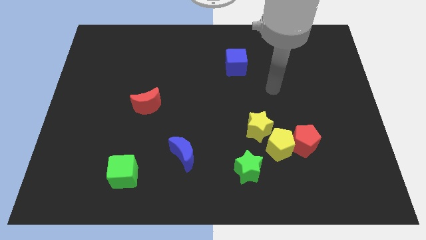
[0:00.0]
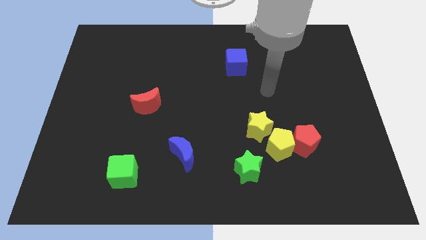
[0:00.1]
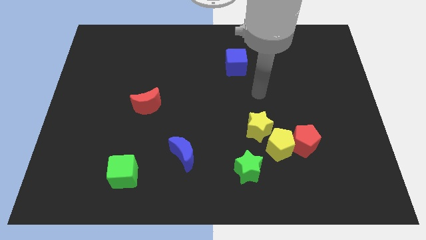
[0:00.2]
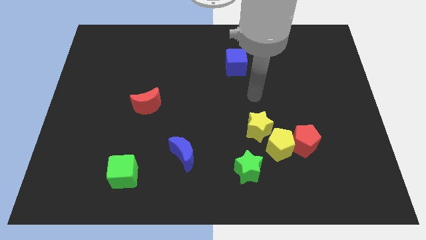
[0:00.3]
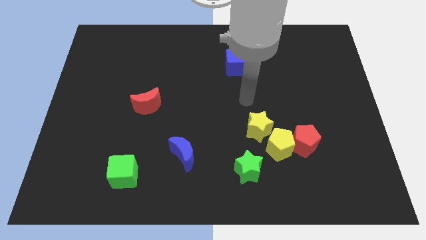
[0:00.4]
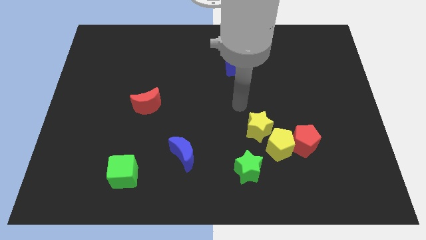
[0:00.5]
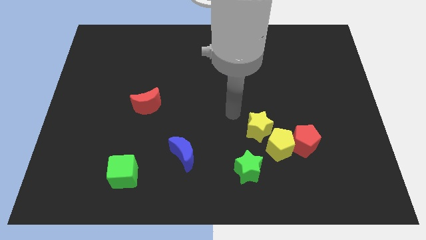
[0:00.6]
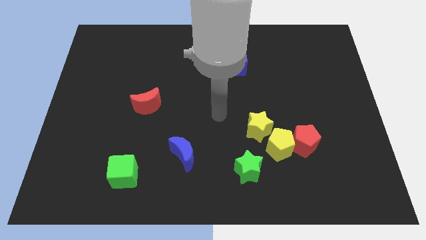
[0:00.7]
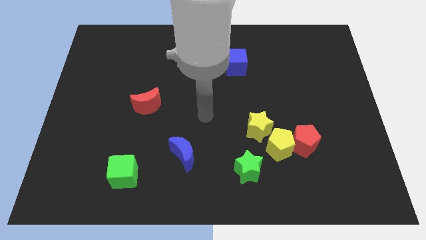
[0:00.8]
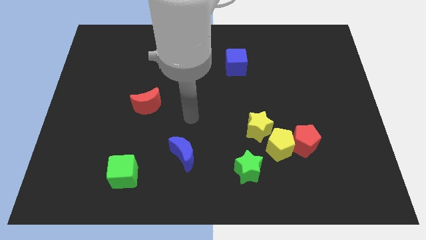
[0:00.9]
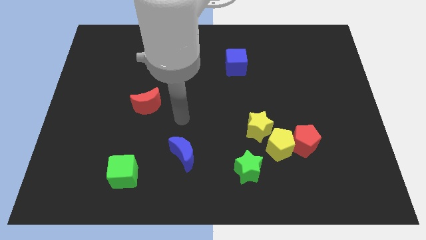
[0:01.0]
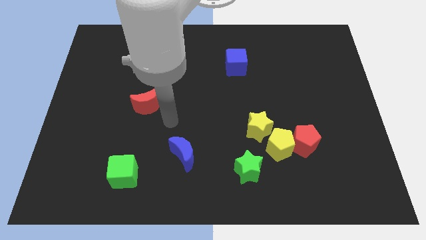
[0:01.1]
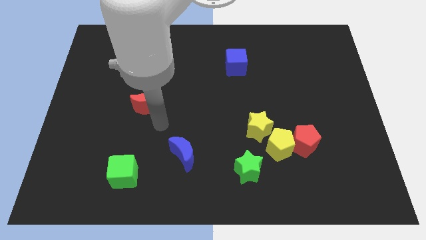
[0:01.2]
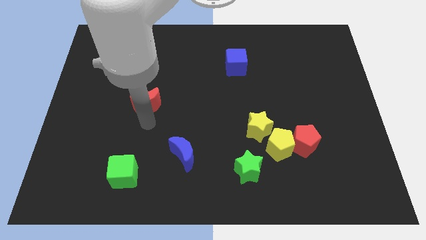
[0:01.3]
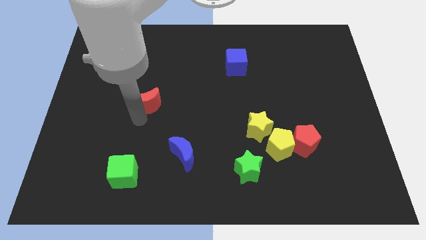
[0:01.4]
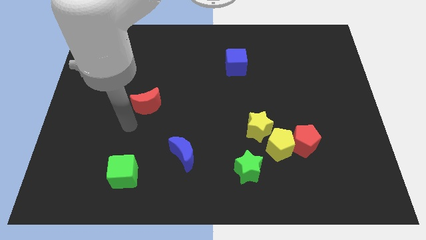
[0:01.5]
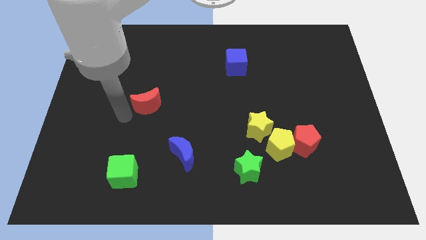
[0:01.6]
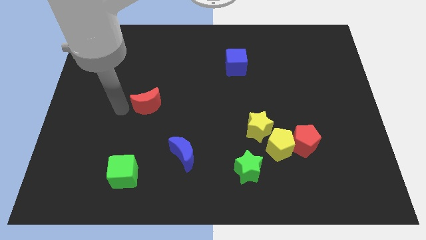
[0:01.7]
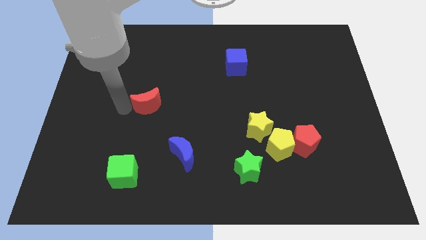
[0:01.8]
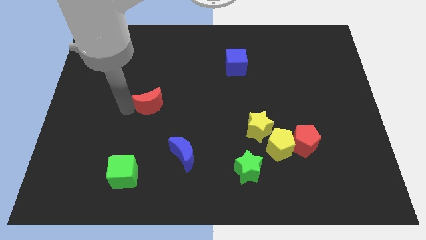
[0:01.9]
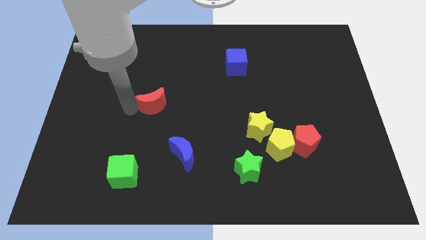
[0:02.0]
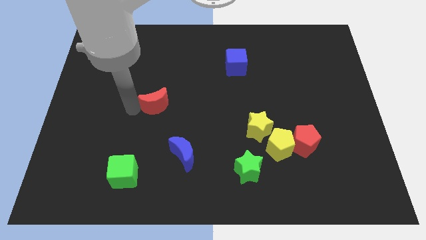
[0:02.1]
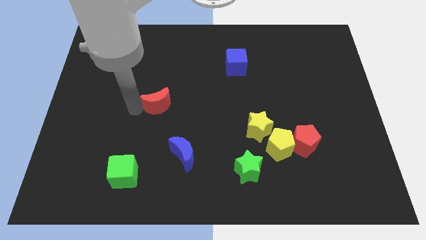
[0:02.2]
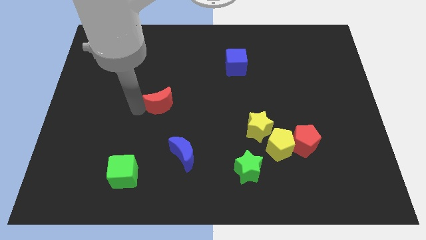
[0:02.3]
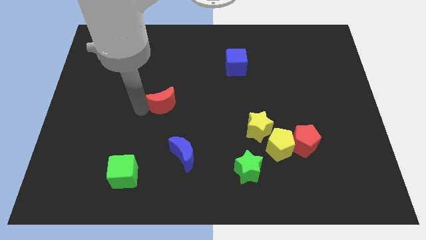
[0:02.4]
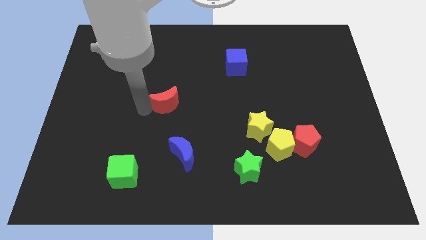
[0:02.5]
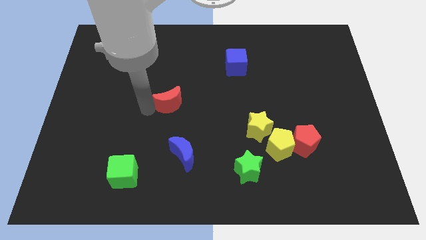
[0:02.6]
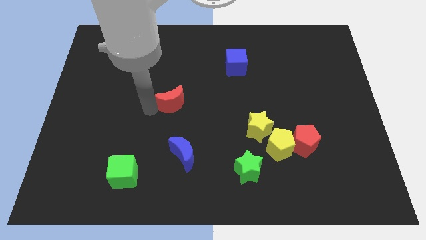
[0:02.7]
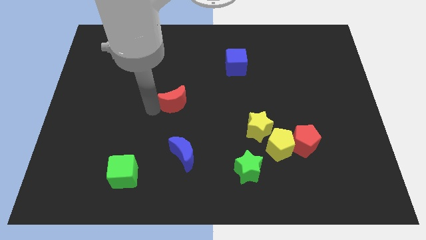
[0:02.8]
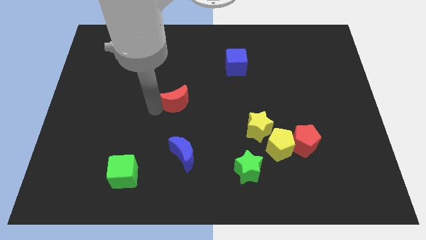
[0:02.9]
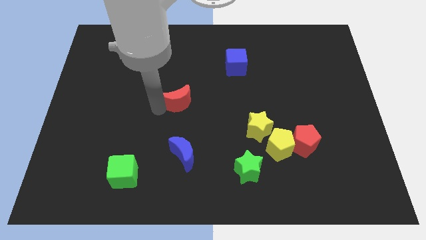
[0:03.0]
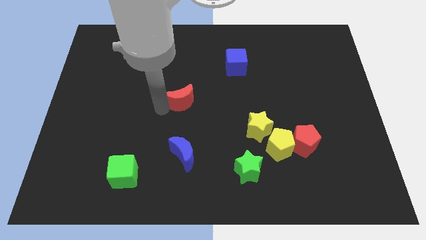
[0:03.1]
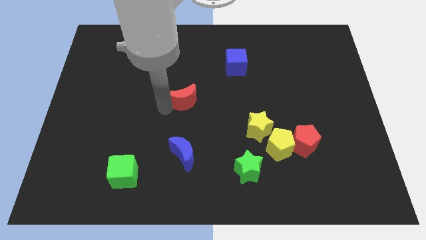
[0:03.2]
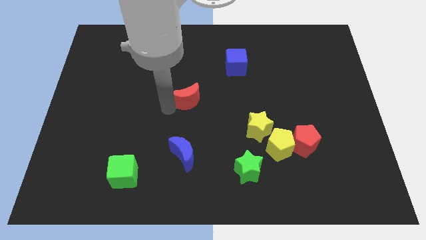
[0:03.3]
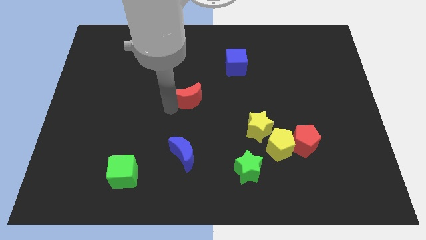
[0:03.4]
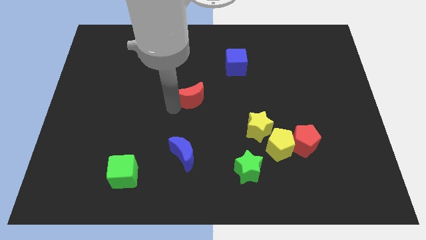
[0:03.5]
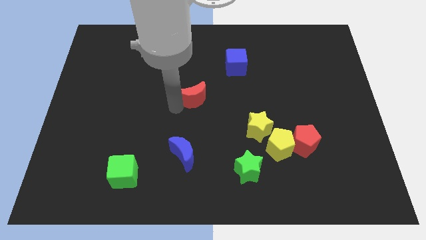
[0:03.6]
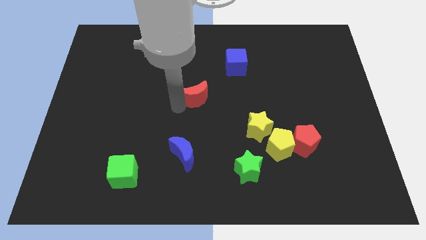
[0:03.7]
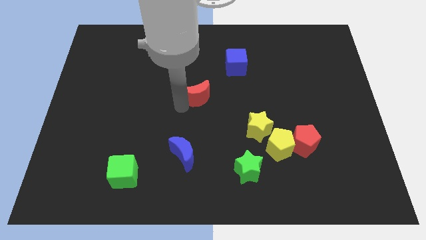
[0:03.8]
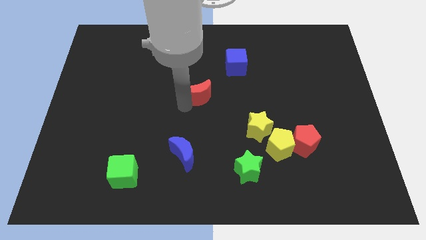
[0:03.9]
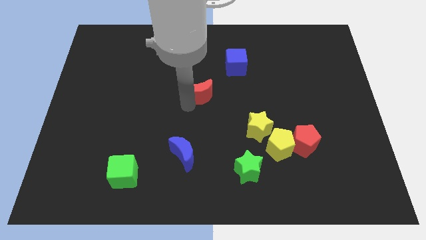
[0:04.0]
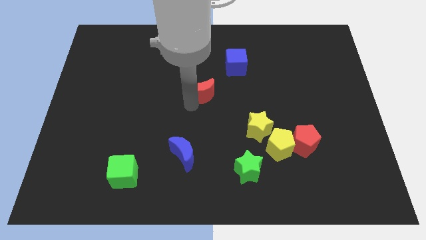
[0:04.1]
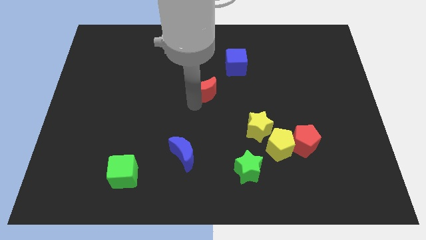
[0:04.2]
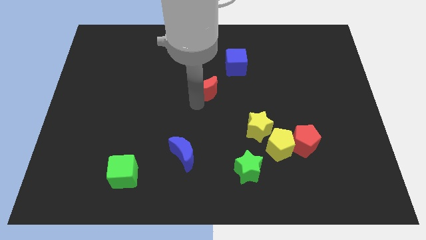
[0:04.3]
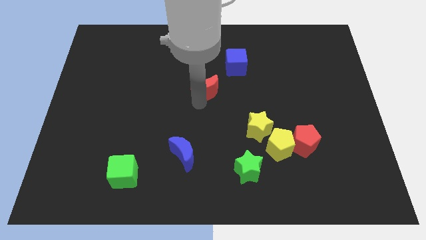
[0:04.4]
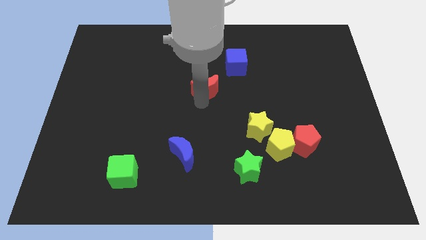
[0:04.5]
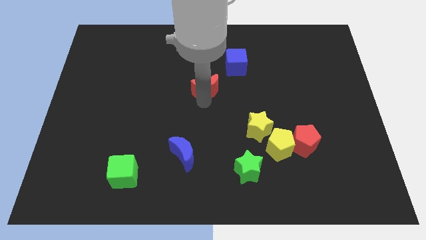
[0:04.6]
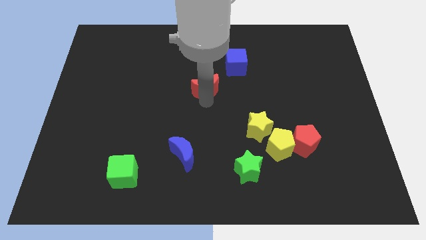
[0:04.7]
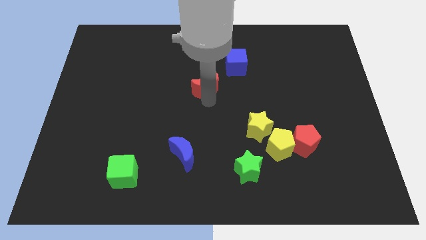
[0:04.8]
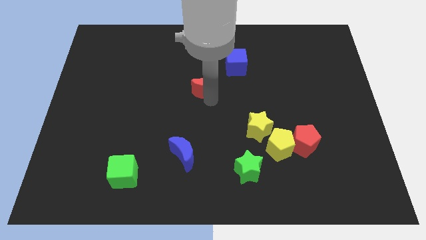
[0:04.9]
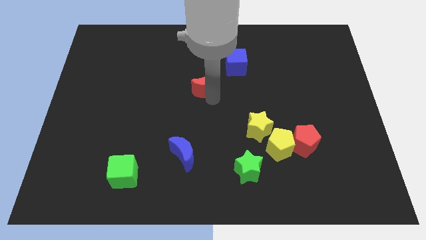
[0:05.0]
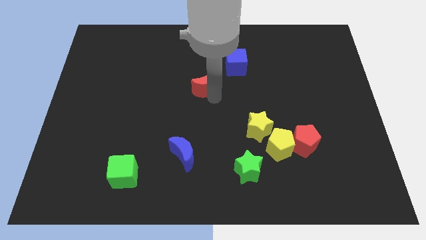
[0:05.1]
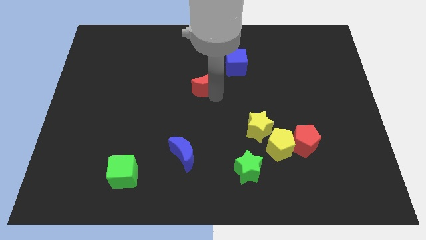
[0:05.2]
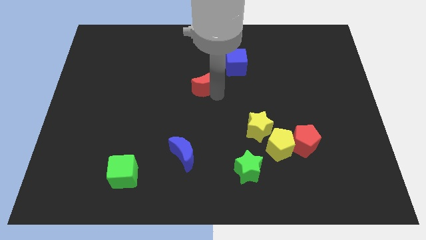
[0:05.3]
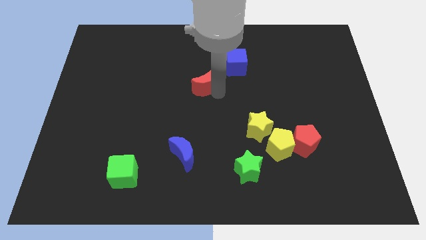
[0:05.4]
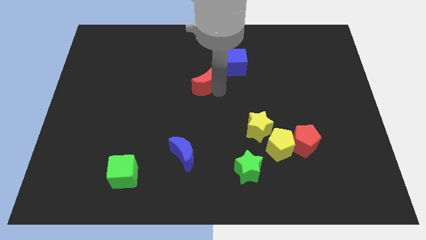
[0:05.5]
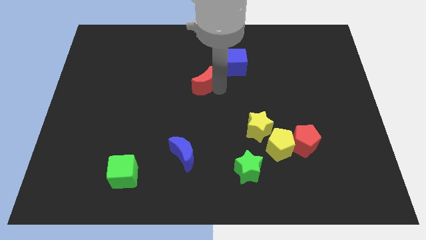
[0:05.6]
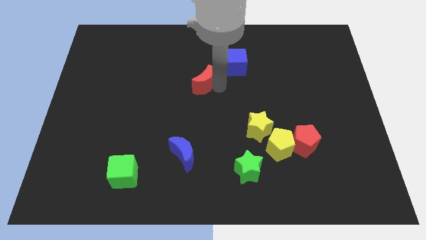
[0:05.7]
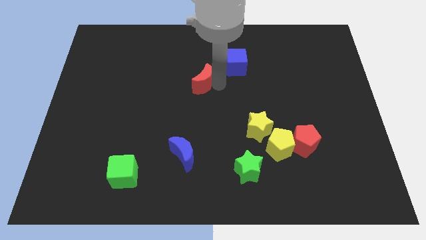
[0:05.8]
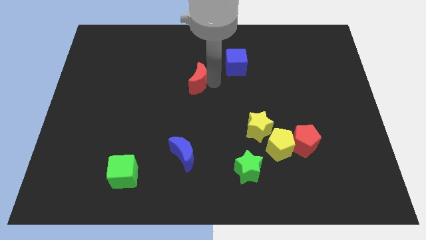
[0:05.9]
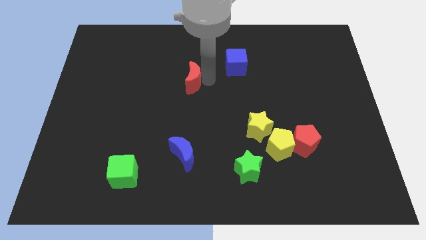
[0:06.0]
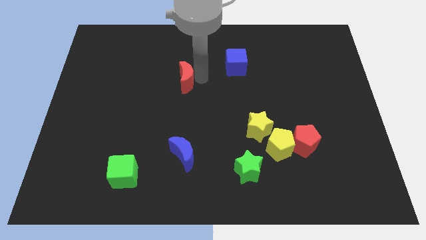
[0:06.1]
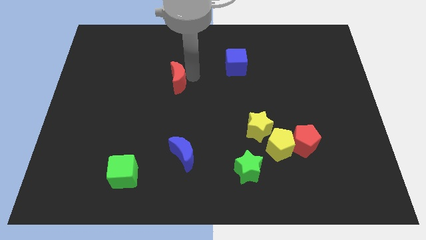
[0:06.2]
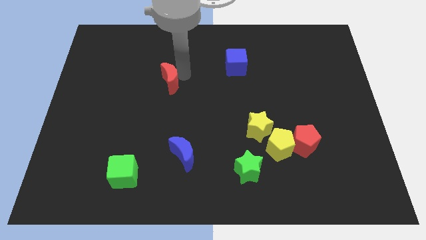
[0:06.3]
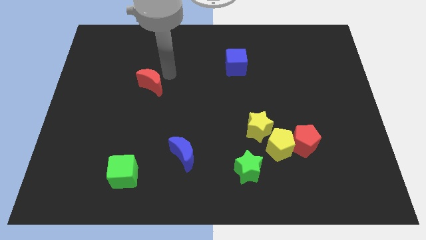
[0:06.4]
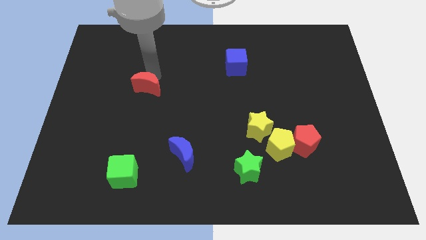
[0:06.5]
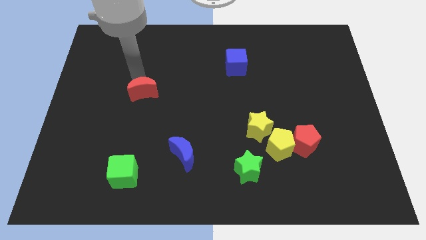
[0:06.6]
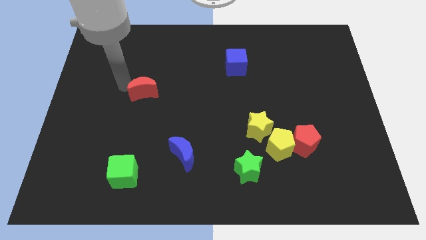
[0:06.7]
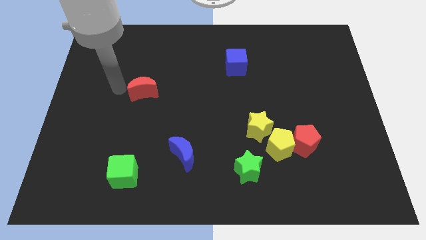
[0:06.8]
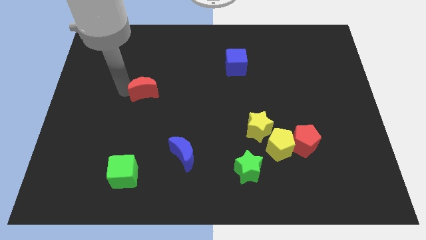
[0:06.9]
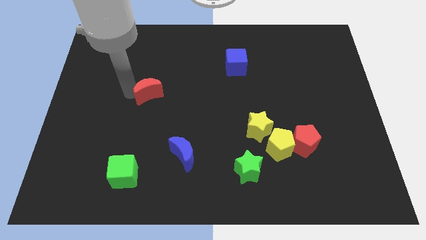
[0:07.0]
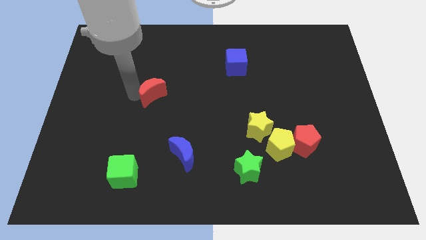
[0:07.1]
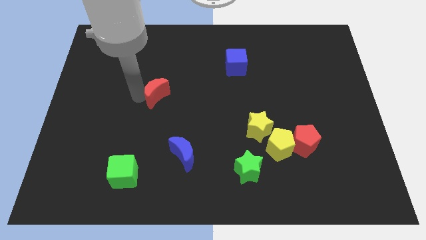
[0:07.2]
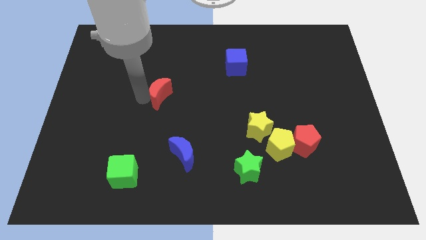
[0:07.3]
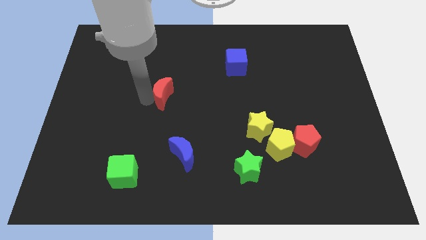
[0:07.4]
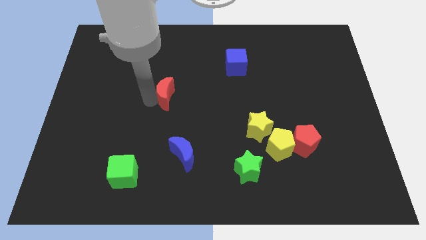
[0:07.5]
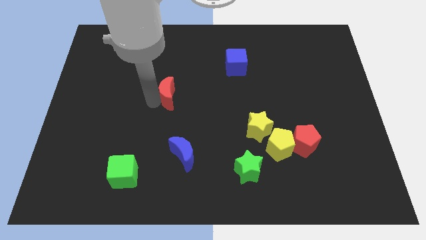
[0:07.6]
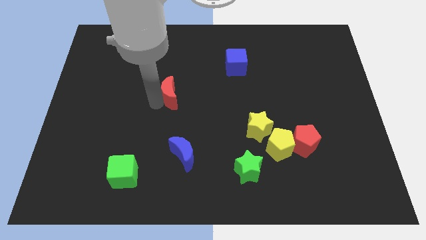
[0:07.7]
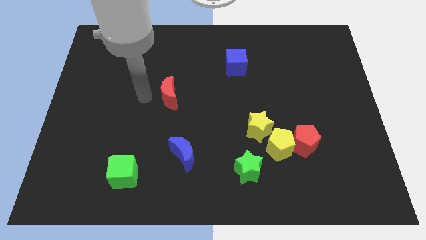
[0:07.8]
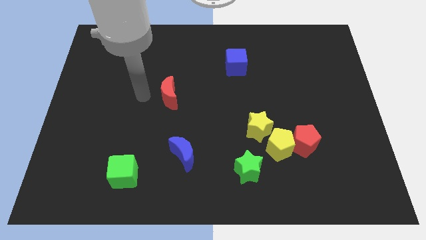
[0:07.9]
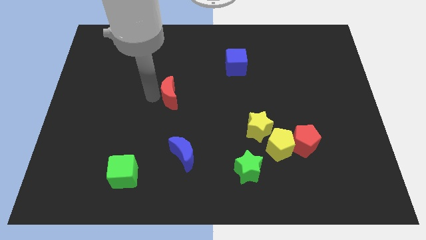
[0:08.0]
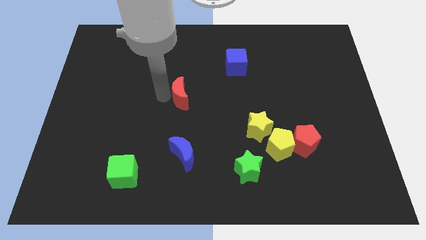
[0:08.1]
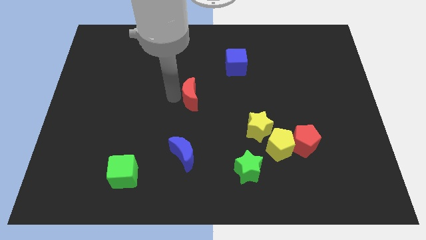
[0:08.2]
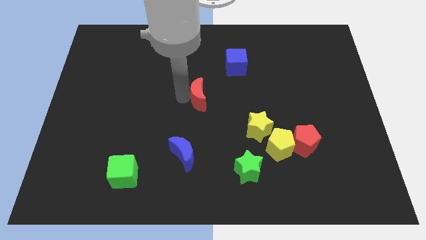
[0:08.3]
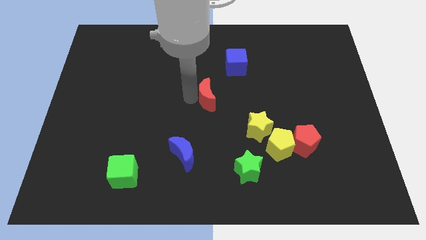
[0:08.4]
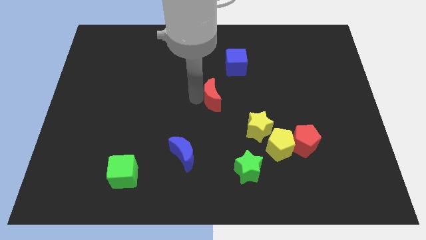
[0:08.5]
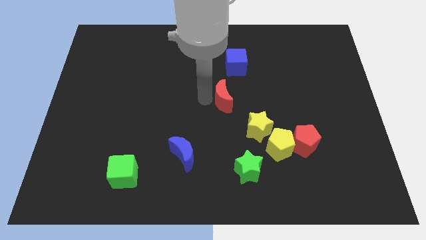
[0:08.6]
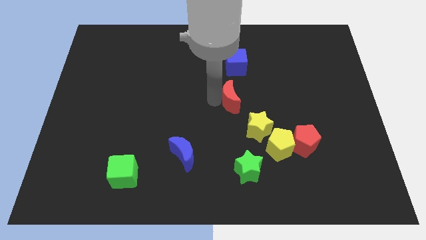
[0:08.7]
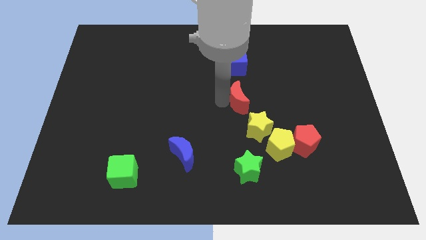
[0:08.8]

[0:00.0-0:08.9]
push the red moon above the yellow star
